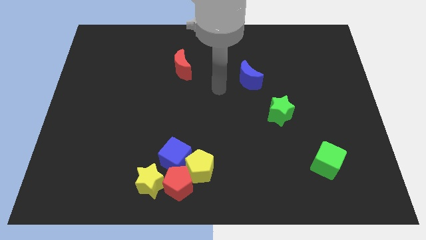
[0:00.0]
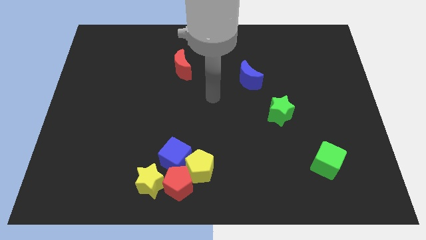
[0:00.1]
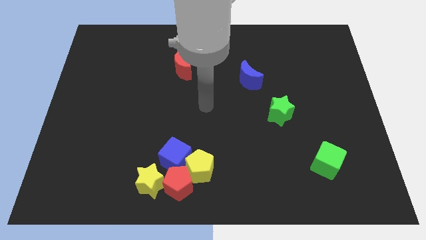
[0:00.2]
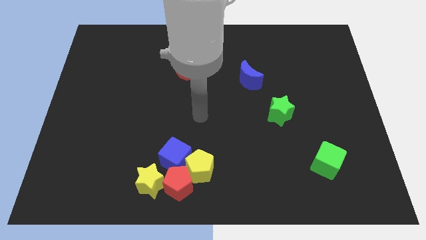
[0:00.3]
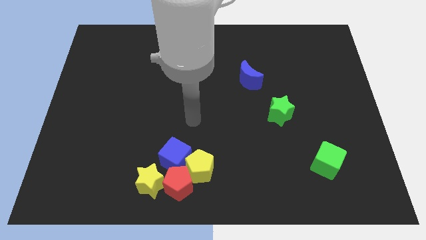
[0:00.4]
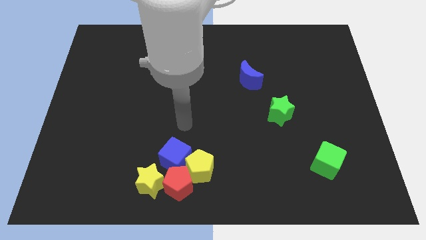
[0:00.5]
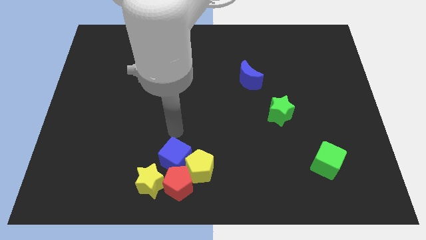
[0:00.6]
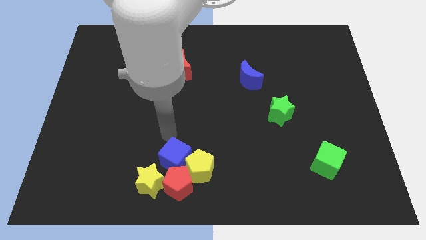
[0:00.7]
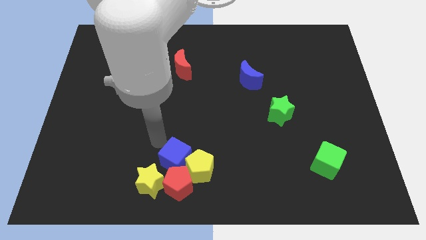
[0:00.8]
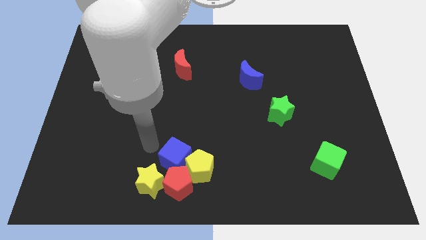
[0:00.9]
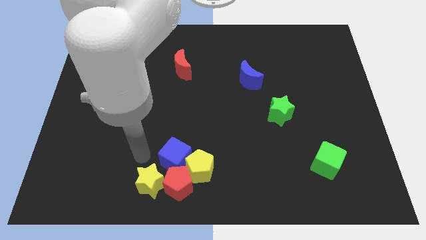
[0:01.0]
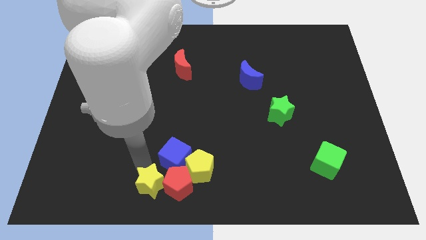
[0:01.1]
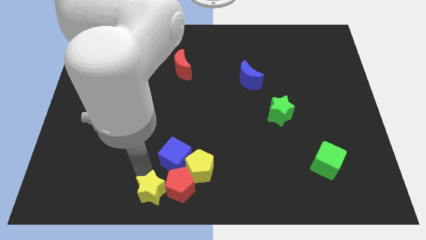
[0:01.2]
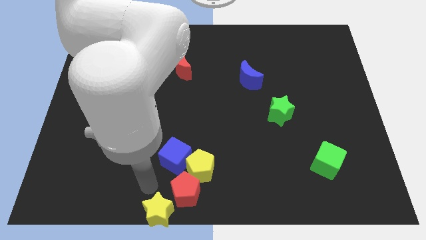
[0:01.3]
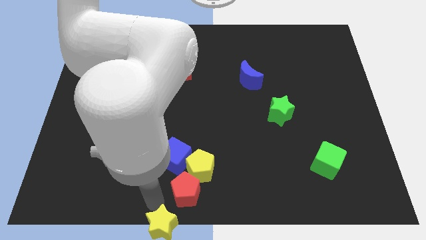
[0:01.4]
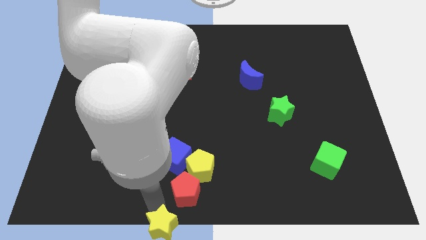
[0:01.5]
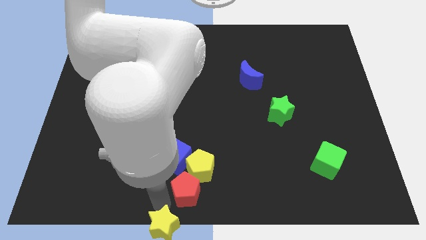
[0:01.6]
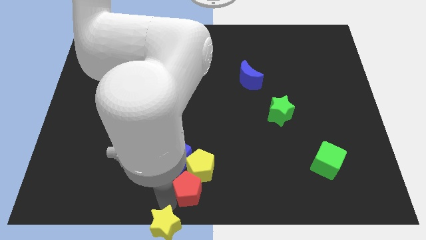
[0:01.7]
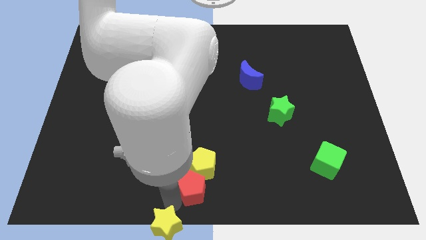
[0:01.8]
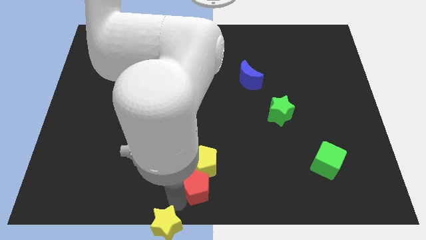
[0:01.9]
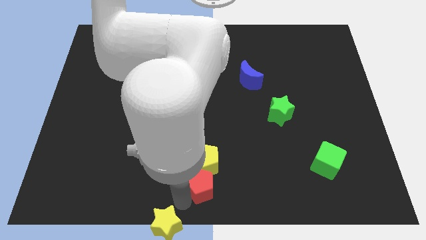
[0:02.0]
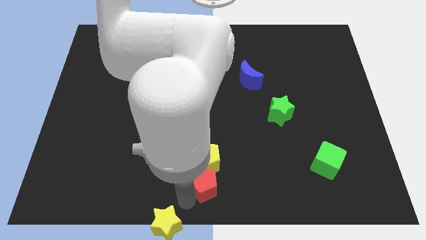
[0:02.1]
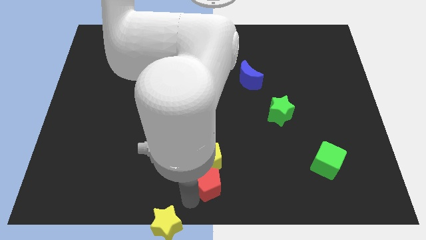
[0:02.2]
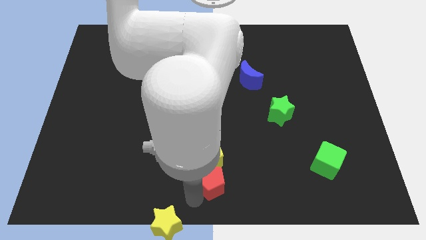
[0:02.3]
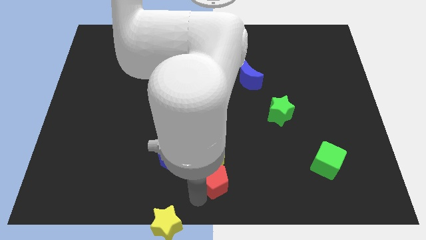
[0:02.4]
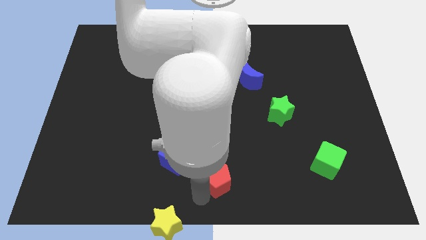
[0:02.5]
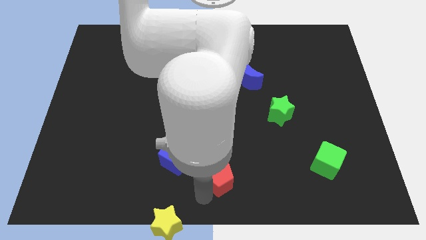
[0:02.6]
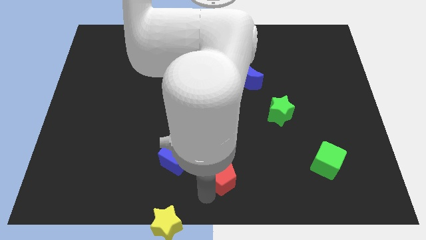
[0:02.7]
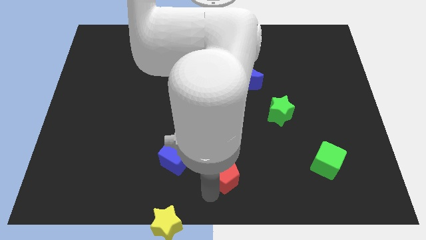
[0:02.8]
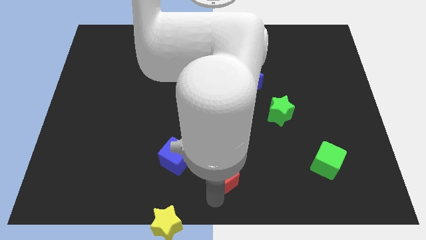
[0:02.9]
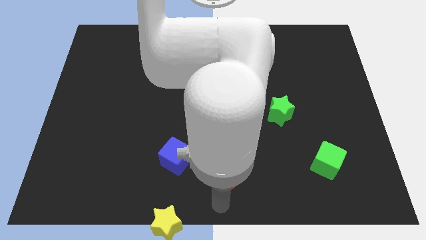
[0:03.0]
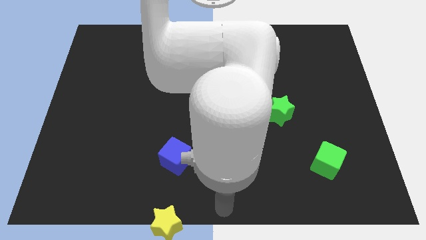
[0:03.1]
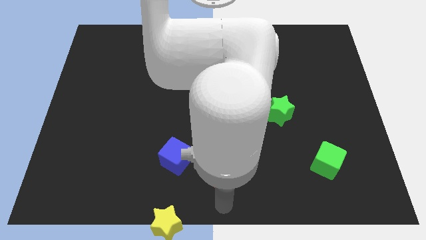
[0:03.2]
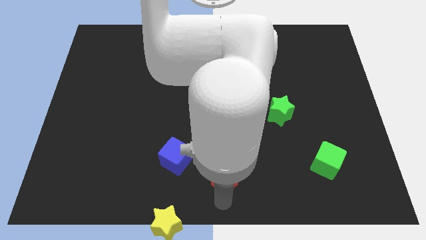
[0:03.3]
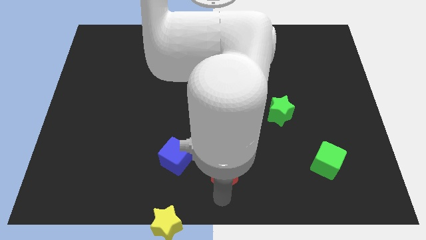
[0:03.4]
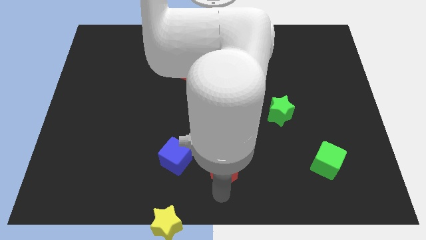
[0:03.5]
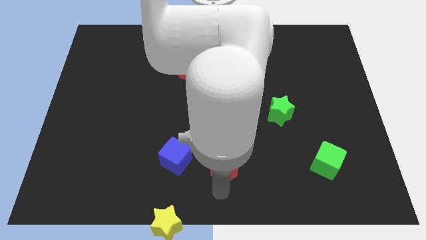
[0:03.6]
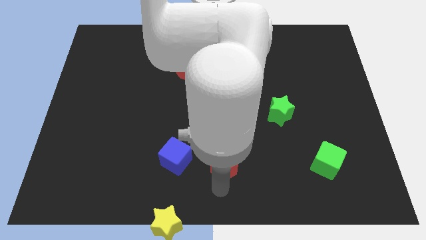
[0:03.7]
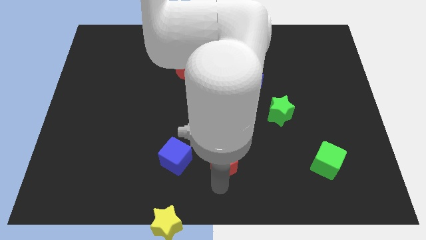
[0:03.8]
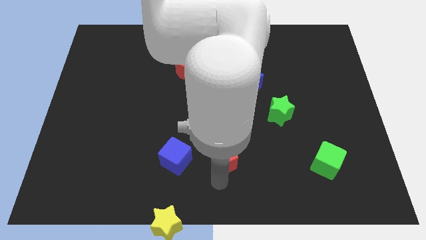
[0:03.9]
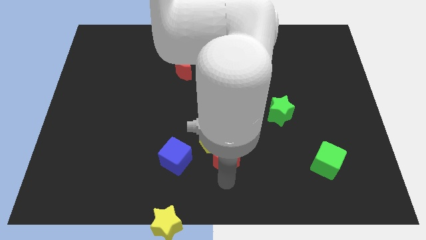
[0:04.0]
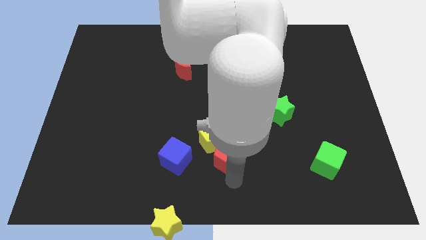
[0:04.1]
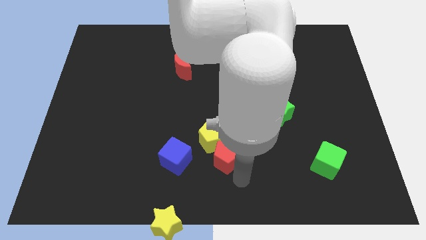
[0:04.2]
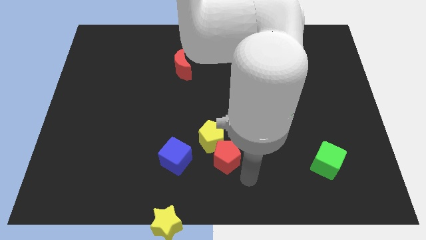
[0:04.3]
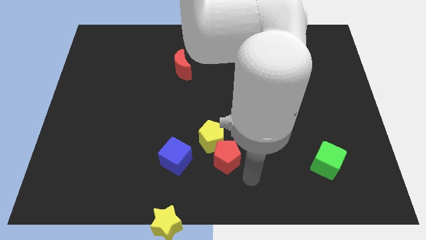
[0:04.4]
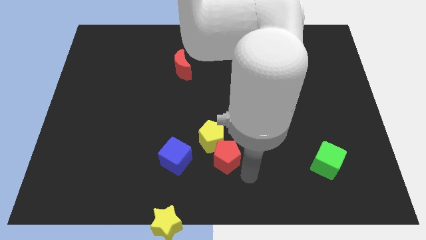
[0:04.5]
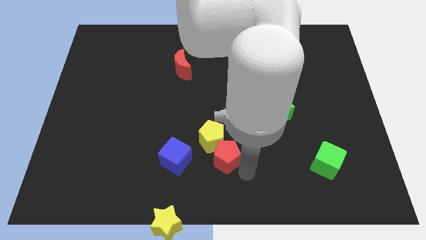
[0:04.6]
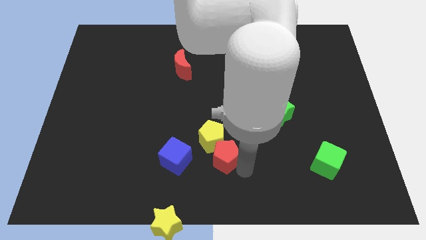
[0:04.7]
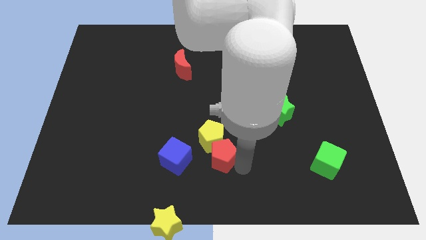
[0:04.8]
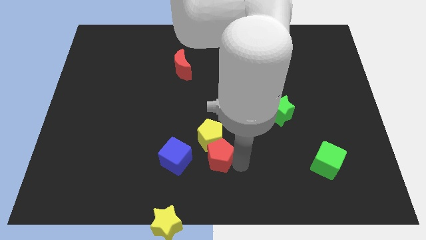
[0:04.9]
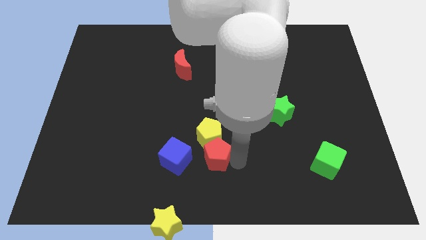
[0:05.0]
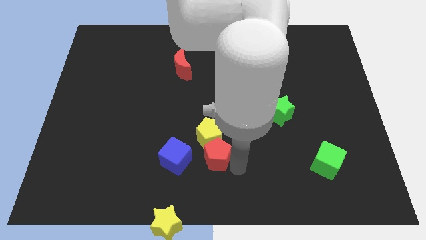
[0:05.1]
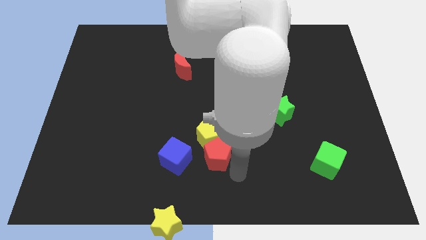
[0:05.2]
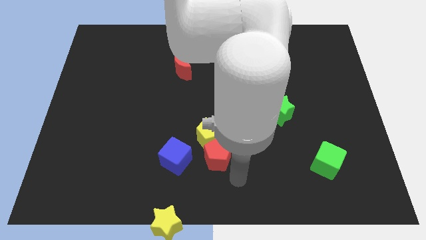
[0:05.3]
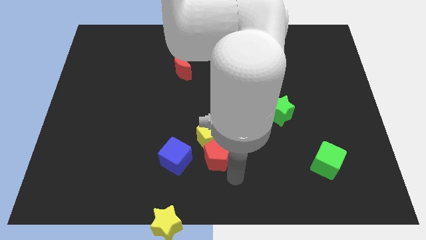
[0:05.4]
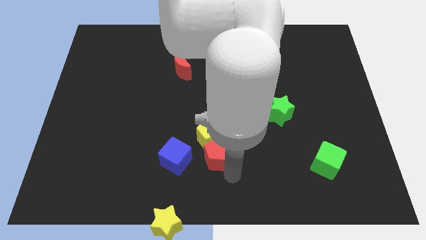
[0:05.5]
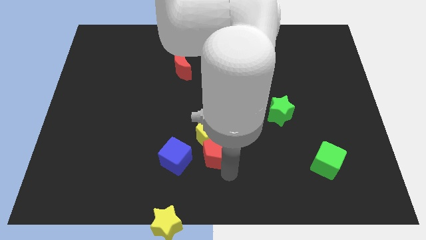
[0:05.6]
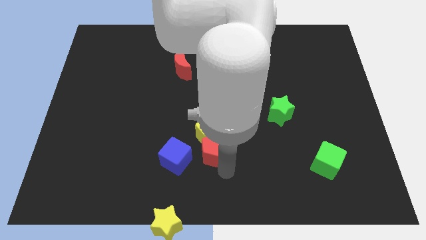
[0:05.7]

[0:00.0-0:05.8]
push the red pentagon to the top right of the blue cube

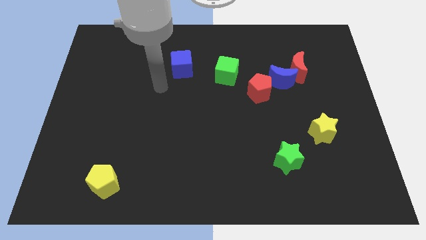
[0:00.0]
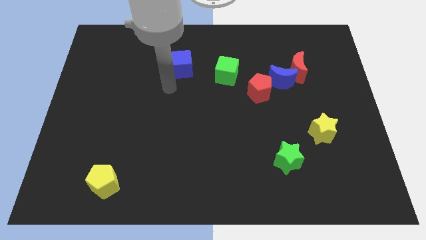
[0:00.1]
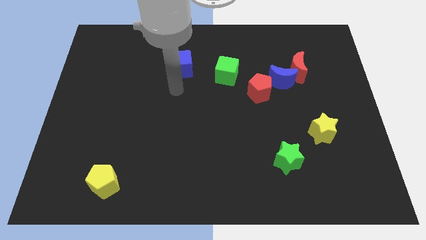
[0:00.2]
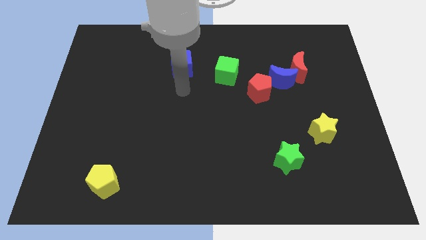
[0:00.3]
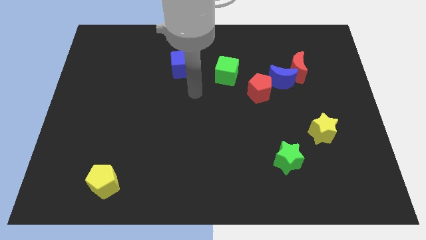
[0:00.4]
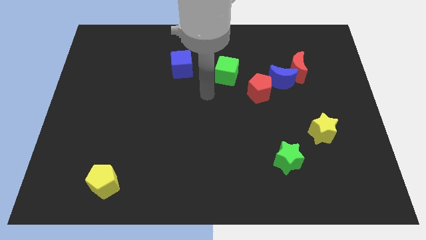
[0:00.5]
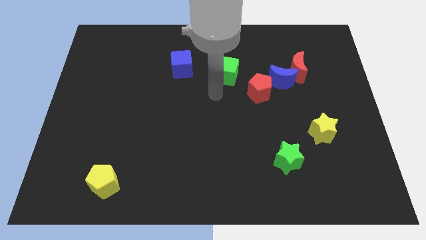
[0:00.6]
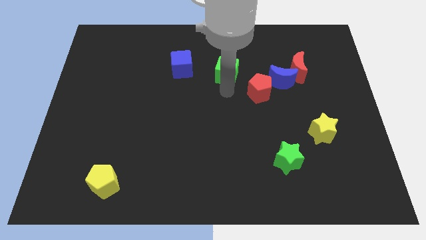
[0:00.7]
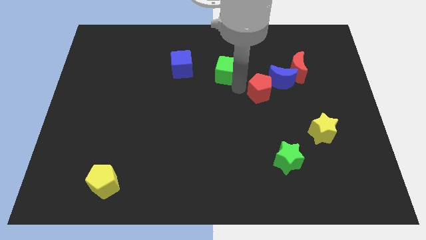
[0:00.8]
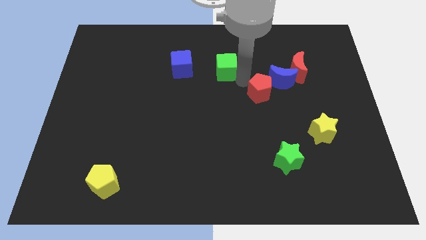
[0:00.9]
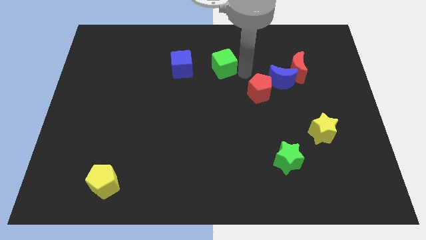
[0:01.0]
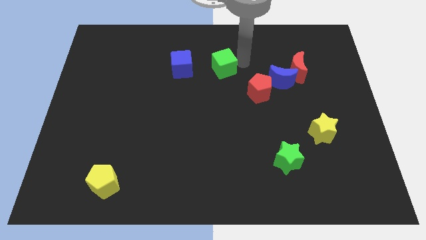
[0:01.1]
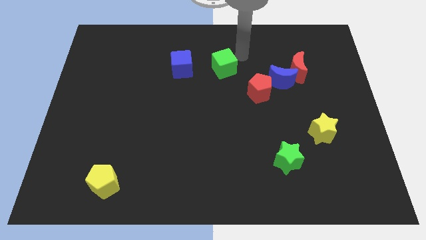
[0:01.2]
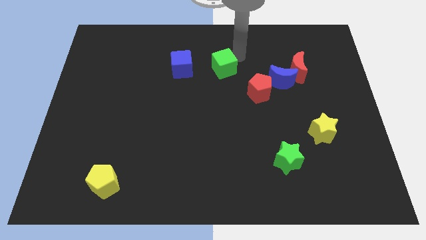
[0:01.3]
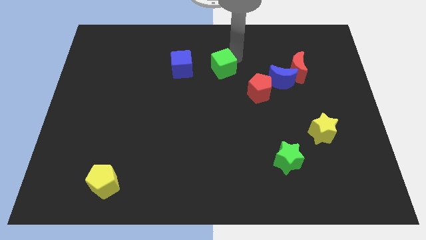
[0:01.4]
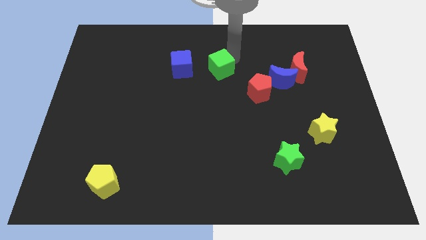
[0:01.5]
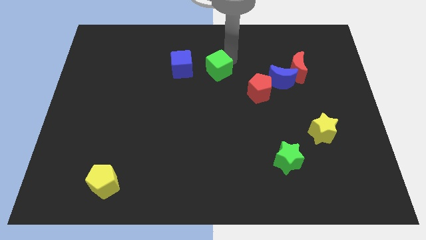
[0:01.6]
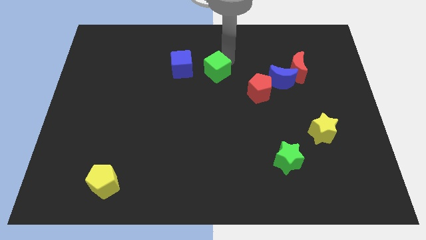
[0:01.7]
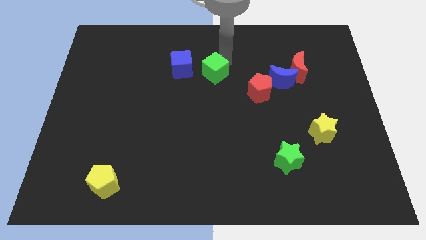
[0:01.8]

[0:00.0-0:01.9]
move the green cube to the bottom right of the blue cube
